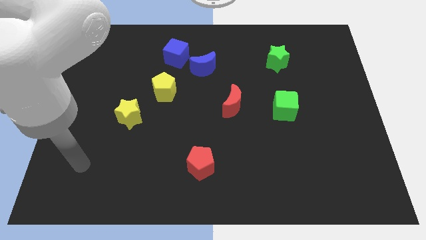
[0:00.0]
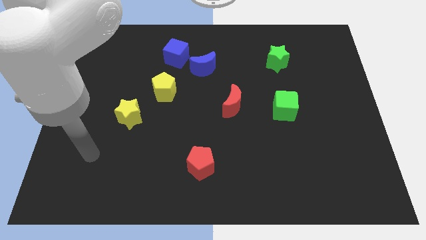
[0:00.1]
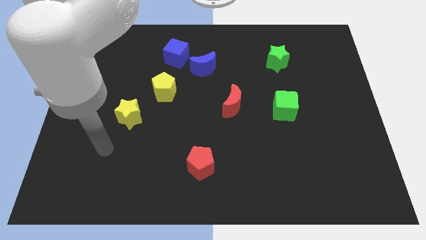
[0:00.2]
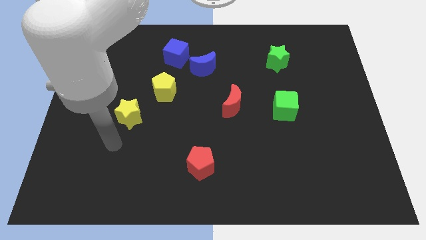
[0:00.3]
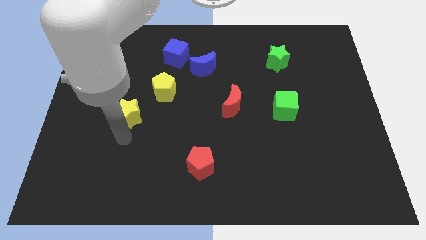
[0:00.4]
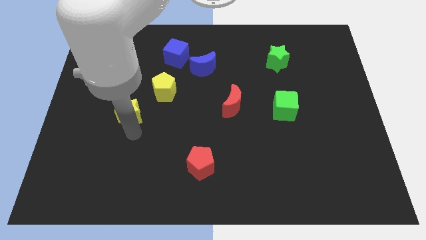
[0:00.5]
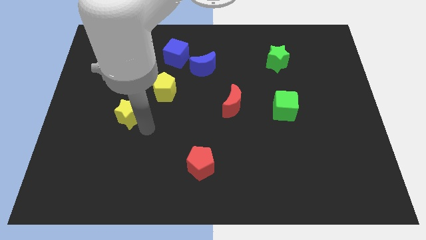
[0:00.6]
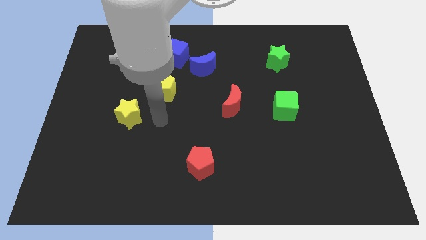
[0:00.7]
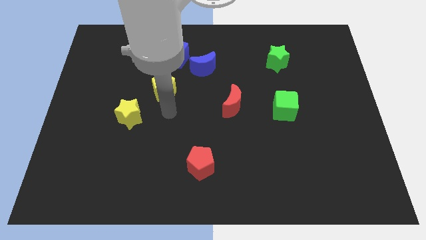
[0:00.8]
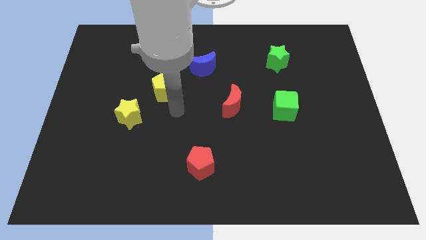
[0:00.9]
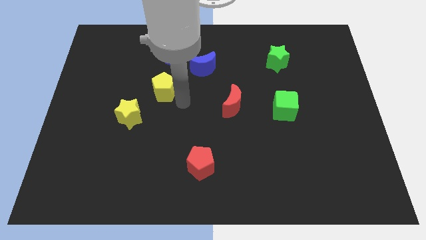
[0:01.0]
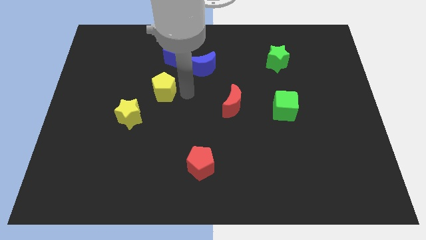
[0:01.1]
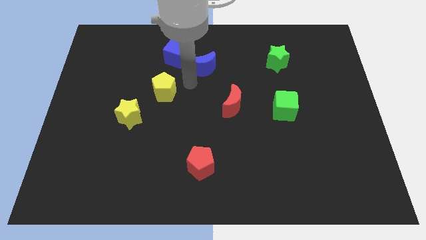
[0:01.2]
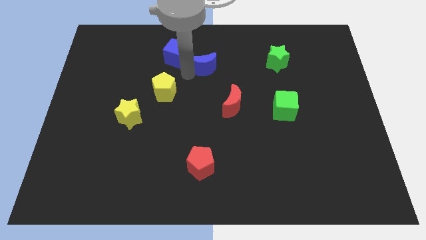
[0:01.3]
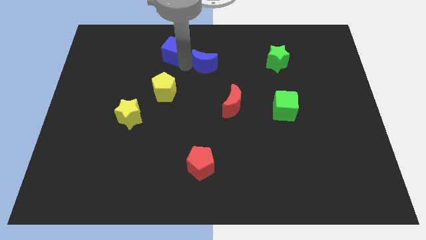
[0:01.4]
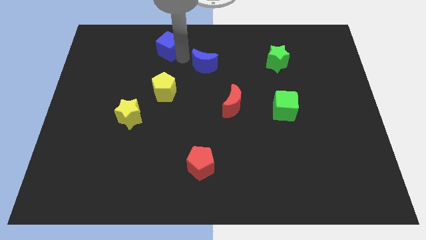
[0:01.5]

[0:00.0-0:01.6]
move the blue moon away from the blue cube

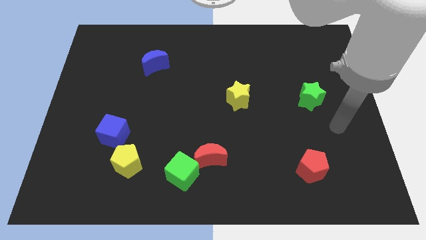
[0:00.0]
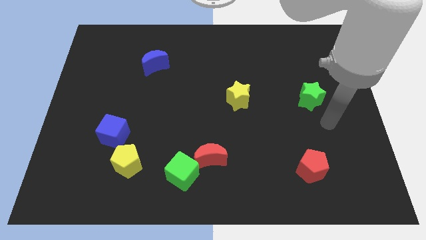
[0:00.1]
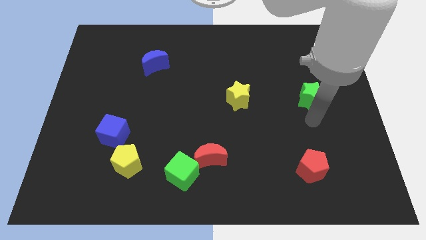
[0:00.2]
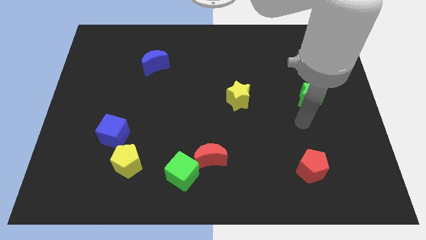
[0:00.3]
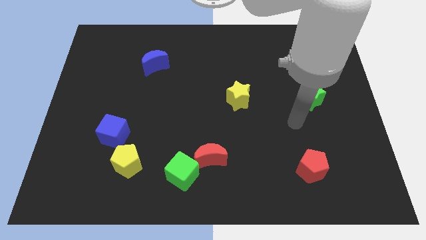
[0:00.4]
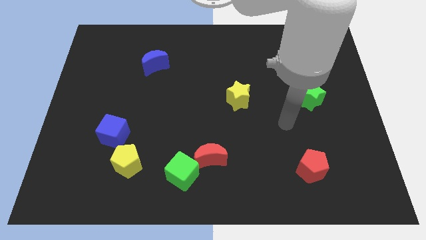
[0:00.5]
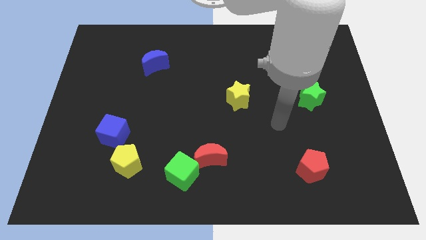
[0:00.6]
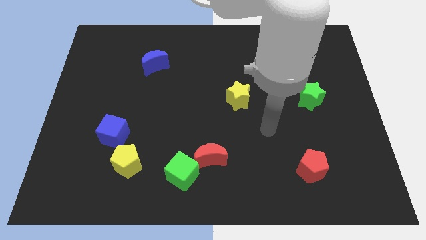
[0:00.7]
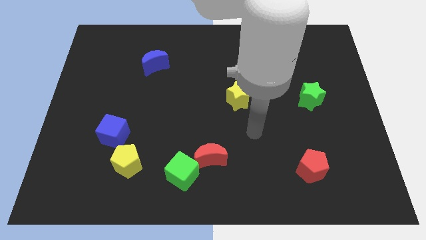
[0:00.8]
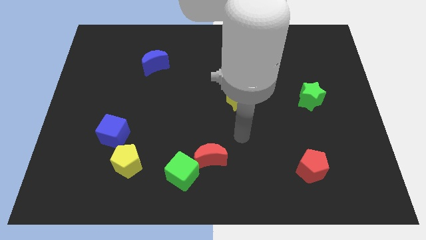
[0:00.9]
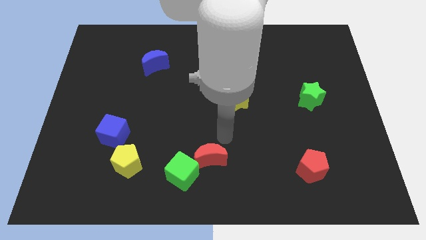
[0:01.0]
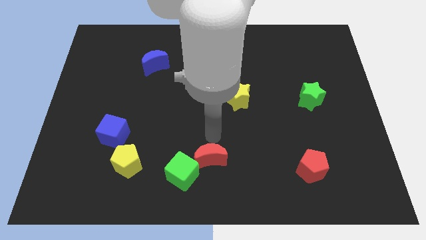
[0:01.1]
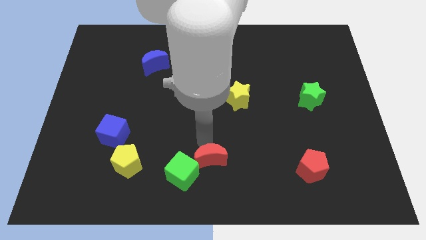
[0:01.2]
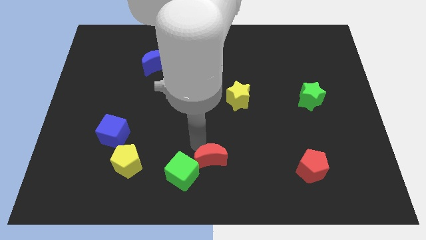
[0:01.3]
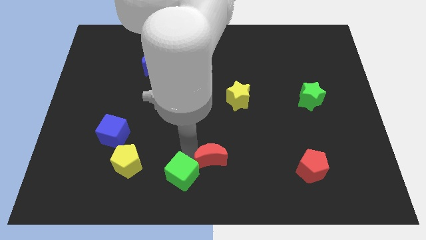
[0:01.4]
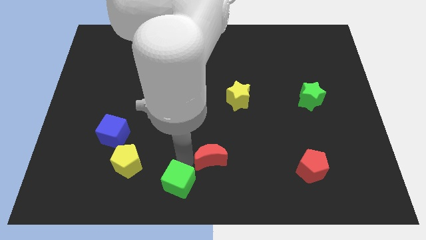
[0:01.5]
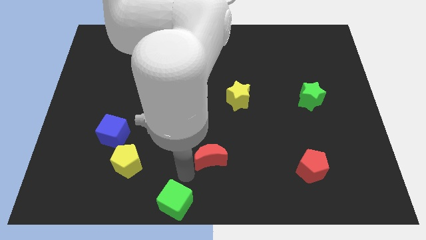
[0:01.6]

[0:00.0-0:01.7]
pull the red moon apart from the green cube

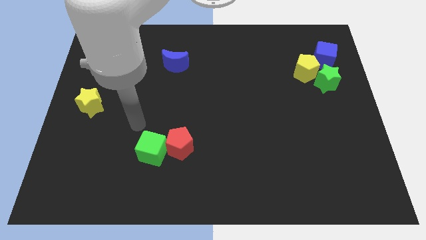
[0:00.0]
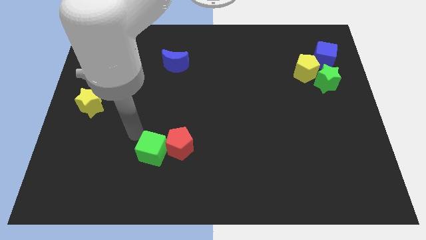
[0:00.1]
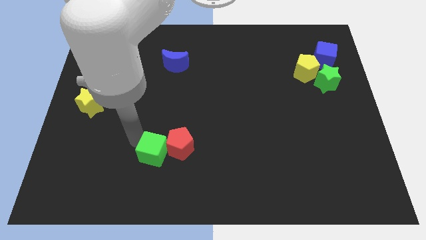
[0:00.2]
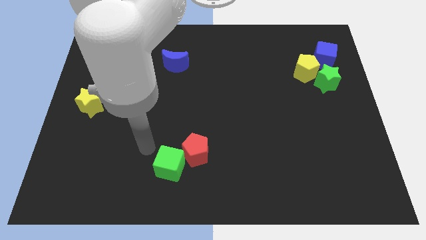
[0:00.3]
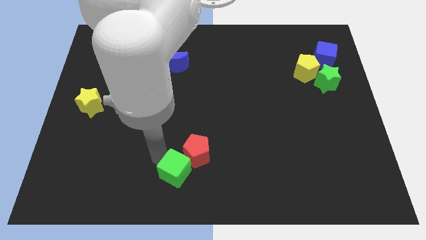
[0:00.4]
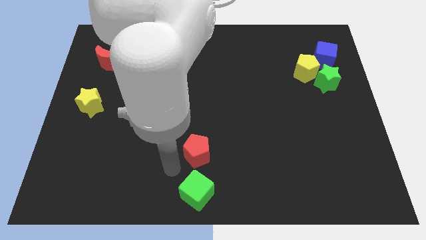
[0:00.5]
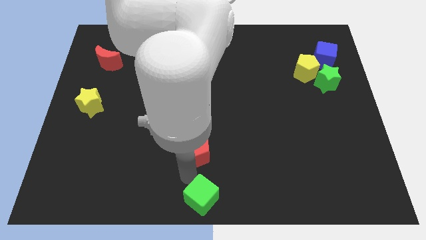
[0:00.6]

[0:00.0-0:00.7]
separate the red pentagon from the green cube

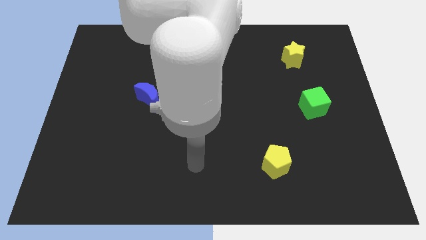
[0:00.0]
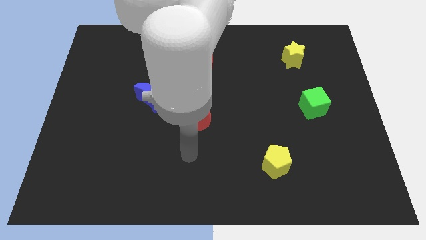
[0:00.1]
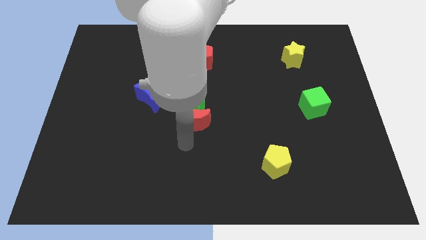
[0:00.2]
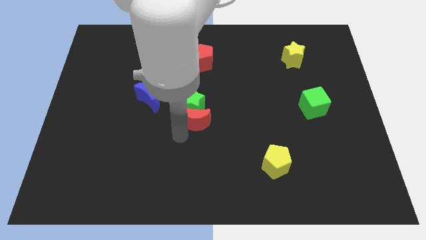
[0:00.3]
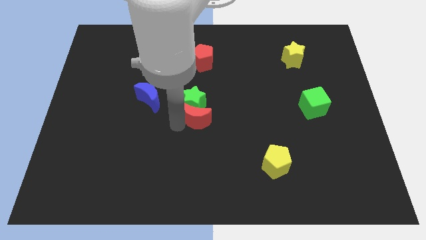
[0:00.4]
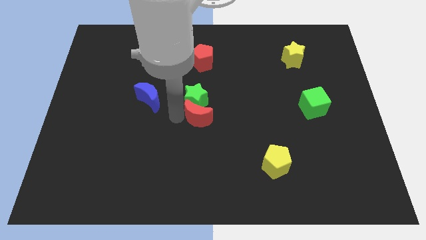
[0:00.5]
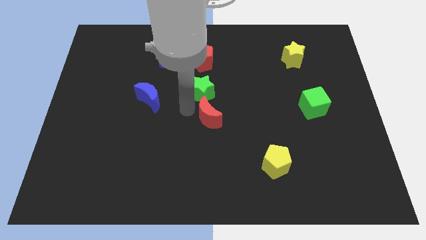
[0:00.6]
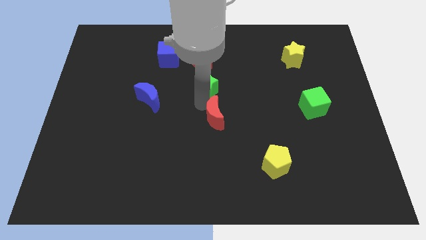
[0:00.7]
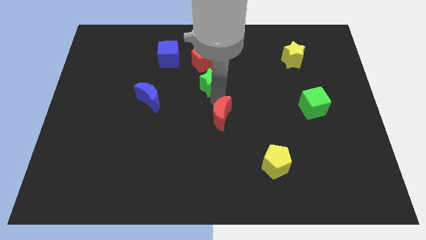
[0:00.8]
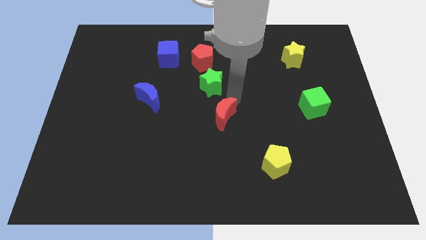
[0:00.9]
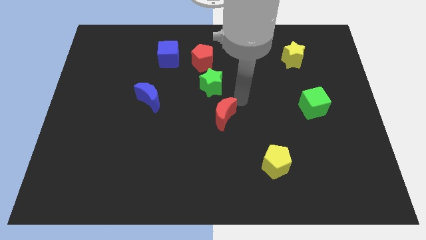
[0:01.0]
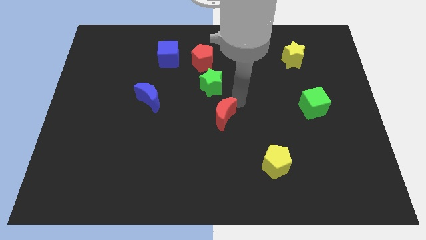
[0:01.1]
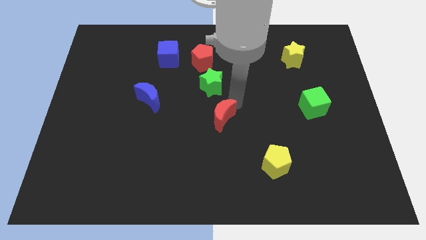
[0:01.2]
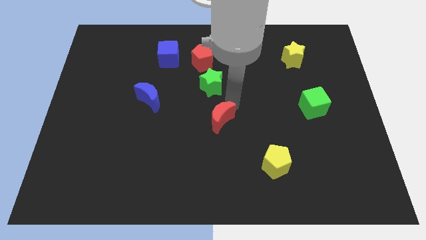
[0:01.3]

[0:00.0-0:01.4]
move the red moon away from the green star

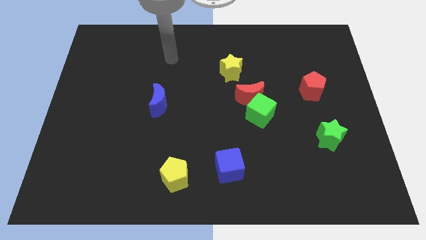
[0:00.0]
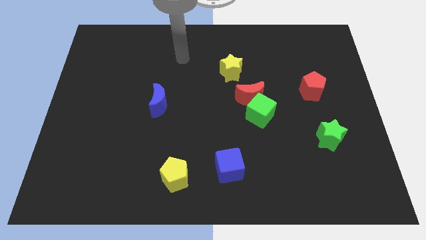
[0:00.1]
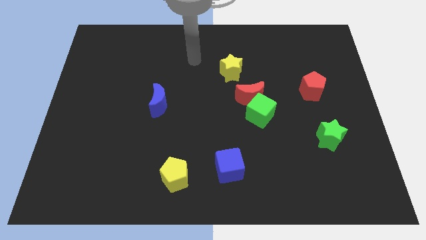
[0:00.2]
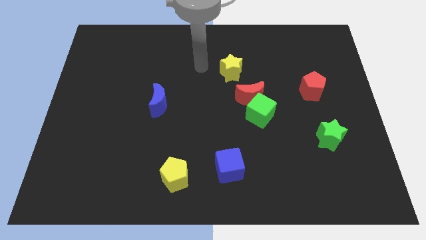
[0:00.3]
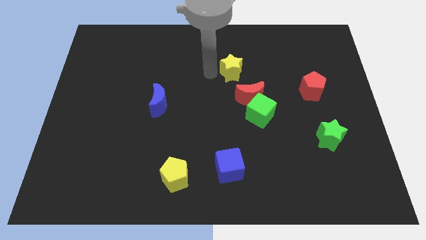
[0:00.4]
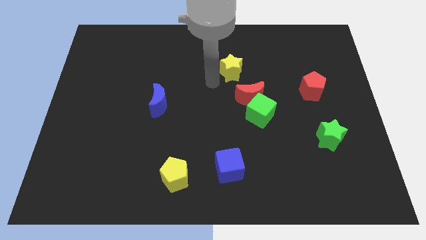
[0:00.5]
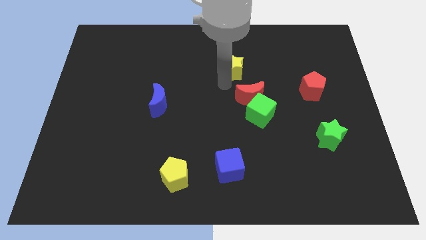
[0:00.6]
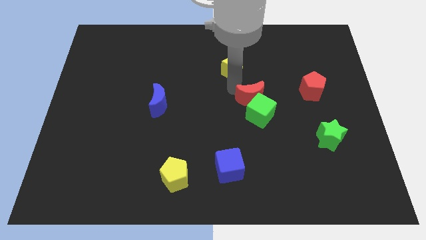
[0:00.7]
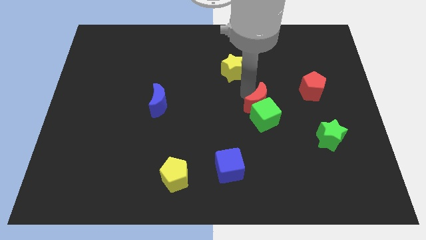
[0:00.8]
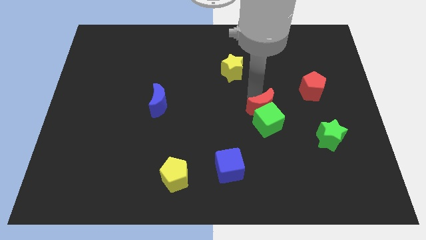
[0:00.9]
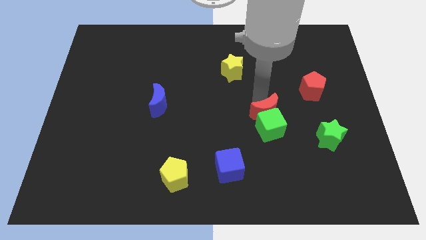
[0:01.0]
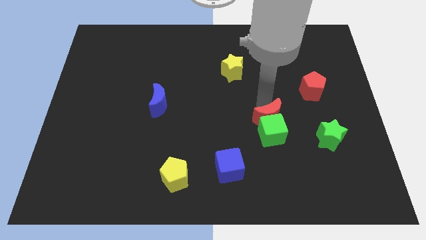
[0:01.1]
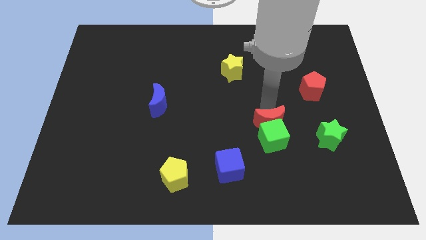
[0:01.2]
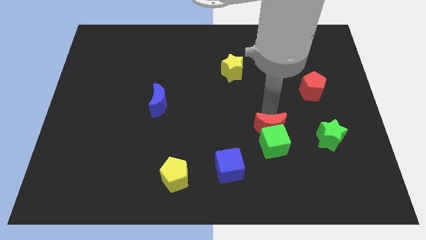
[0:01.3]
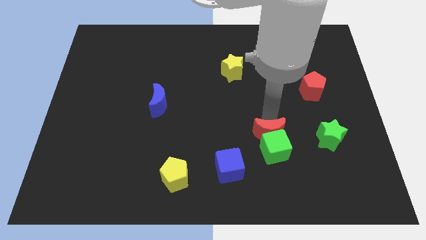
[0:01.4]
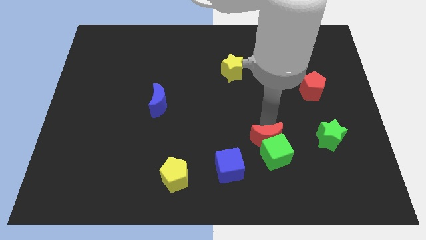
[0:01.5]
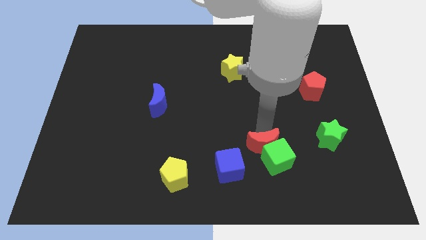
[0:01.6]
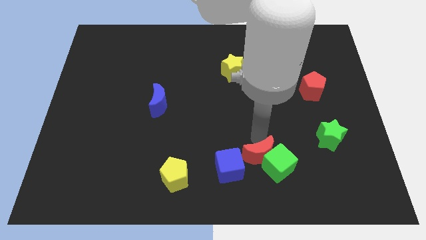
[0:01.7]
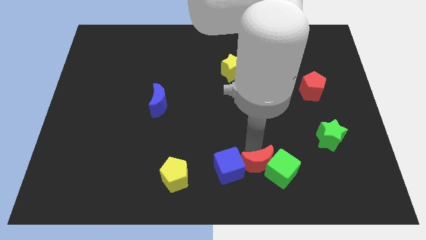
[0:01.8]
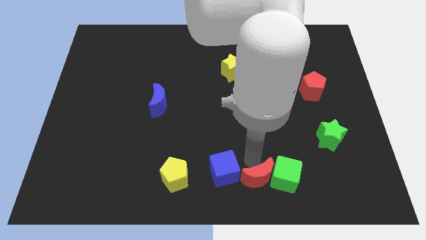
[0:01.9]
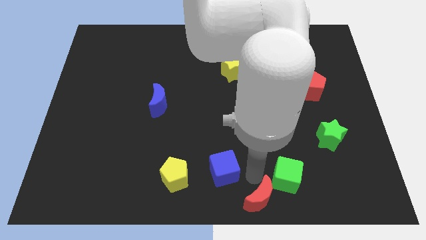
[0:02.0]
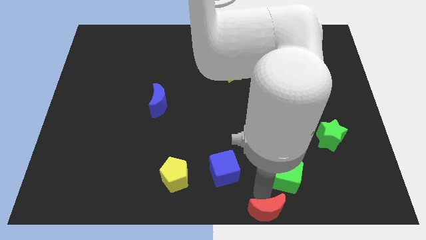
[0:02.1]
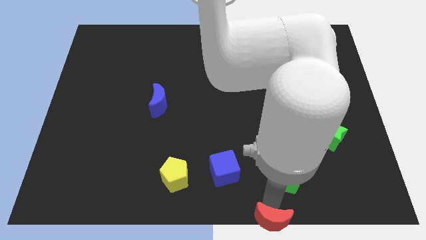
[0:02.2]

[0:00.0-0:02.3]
pull the green cube apart from the red moon

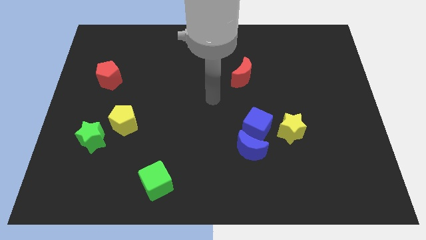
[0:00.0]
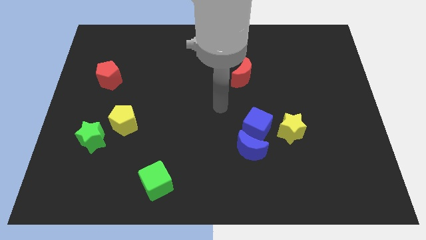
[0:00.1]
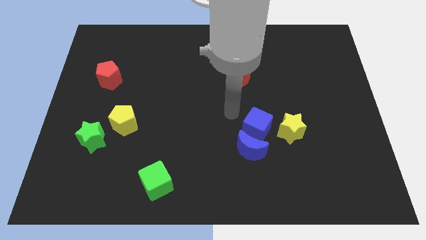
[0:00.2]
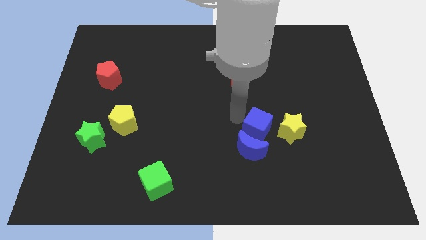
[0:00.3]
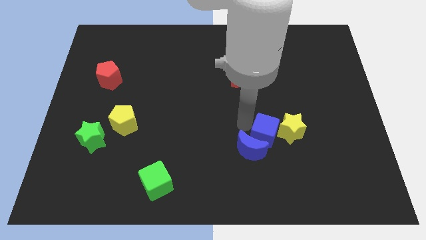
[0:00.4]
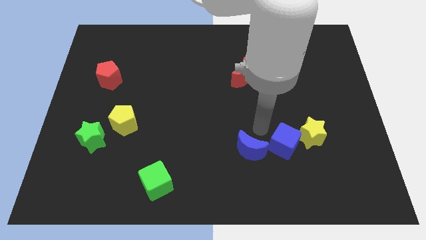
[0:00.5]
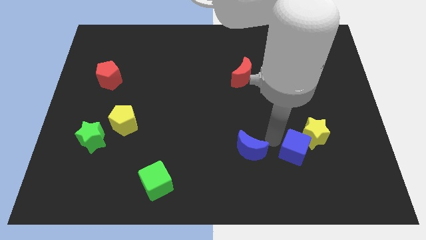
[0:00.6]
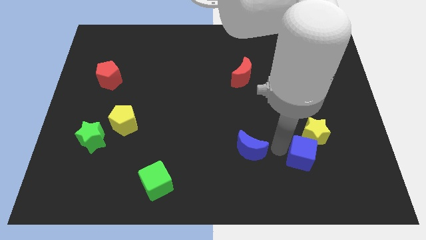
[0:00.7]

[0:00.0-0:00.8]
pull the blue moon apart from the blue cube

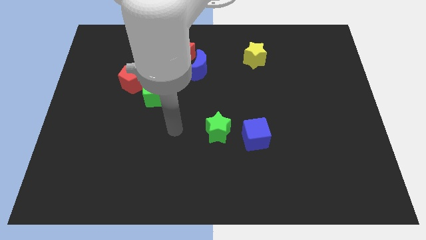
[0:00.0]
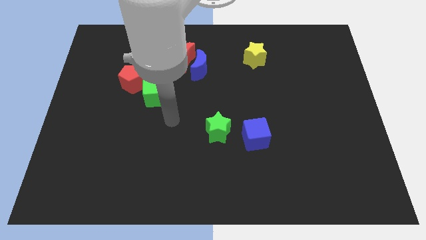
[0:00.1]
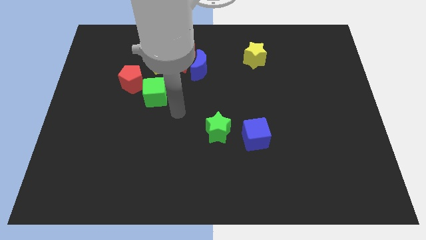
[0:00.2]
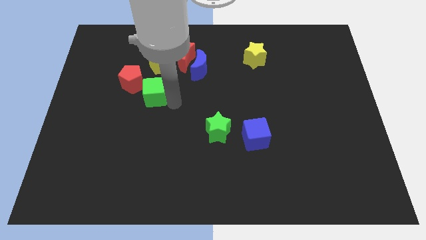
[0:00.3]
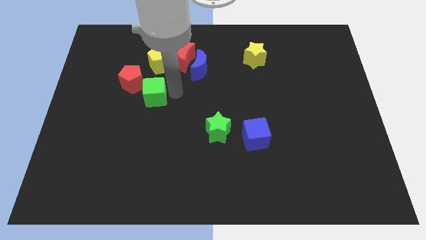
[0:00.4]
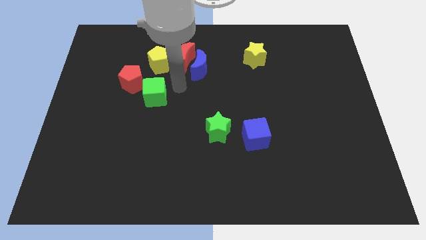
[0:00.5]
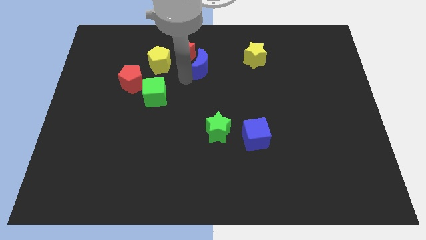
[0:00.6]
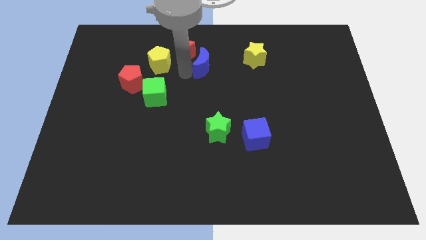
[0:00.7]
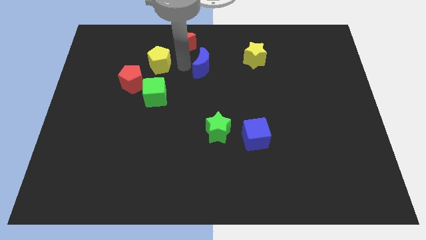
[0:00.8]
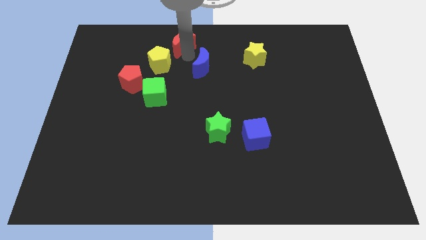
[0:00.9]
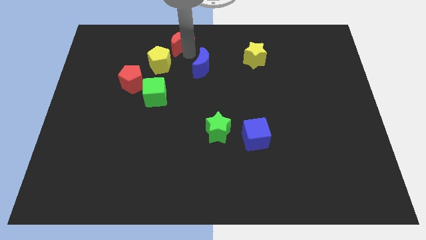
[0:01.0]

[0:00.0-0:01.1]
move the blue moon away from the red moon
